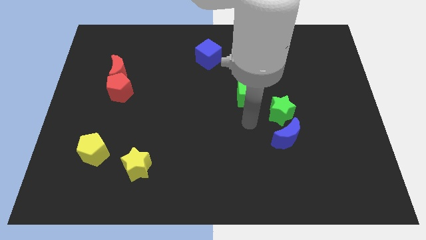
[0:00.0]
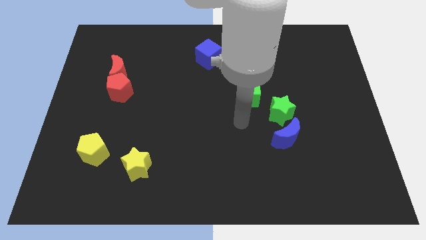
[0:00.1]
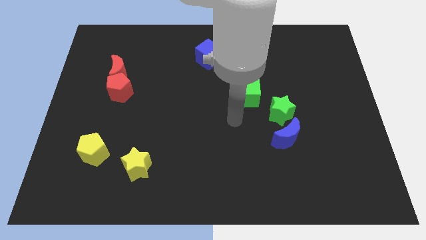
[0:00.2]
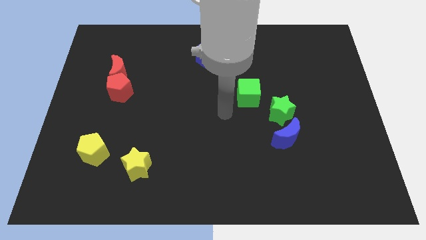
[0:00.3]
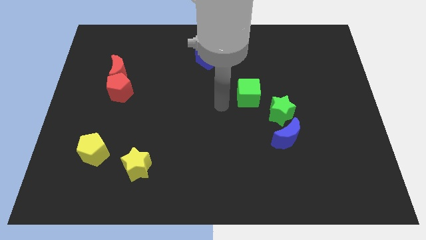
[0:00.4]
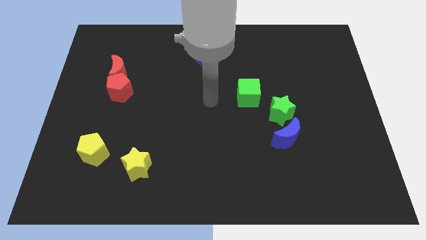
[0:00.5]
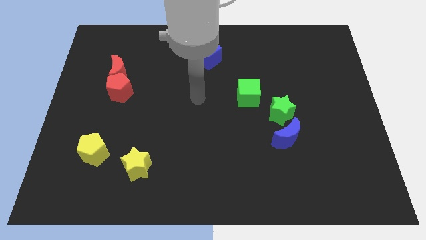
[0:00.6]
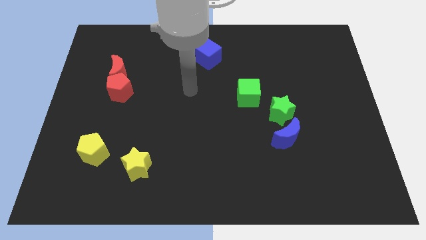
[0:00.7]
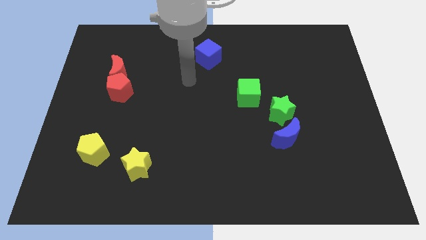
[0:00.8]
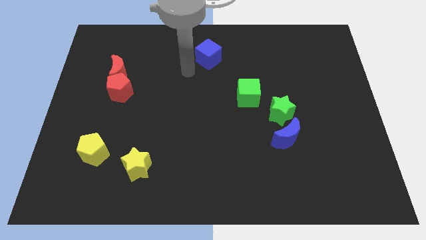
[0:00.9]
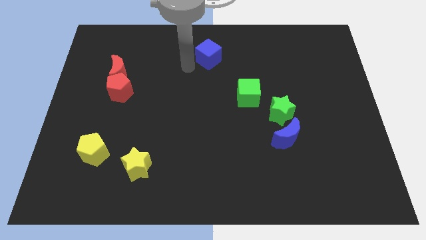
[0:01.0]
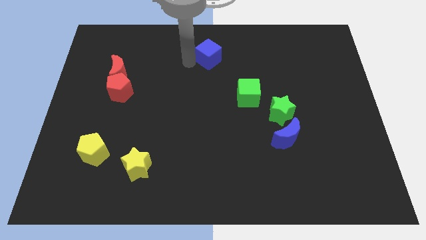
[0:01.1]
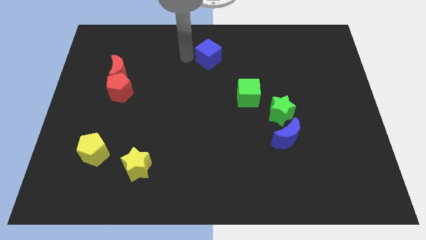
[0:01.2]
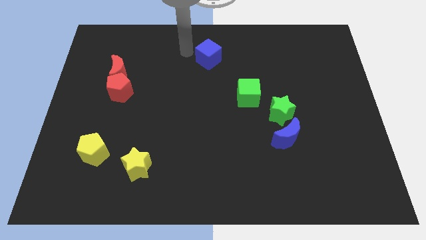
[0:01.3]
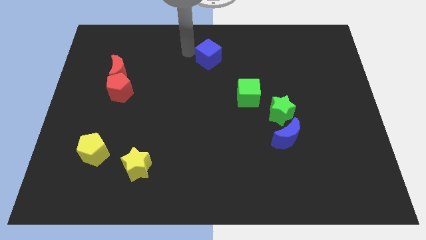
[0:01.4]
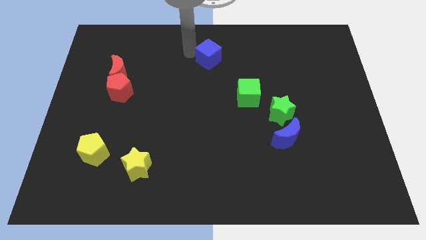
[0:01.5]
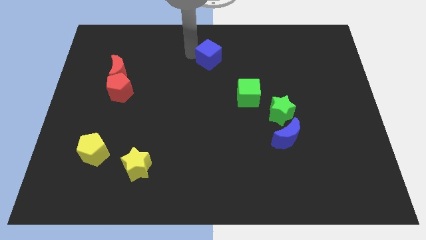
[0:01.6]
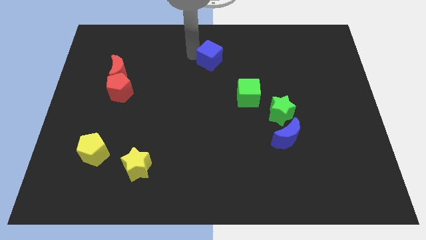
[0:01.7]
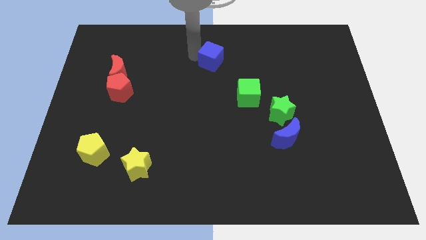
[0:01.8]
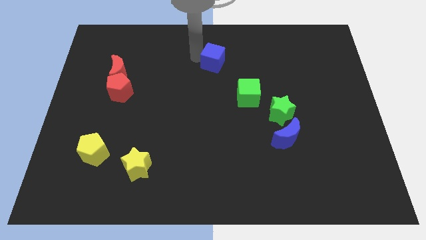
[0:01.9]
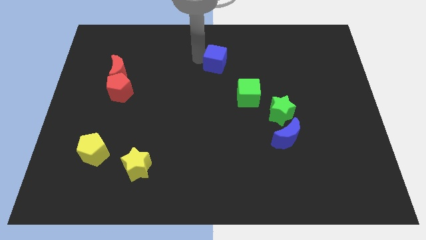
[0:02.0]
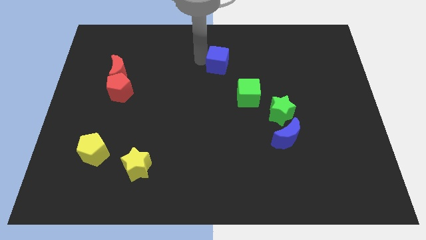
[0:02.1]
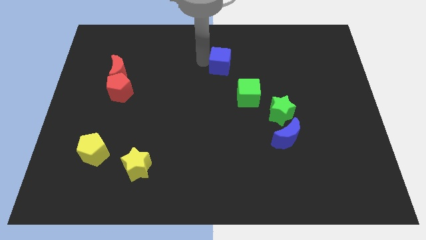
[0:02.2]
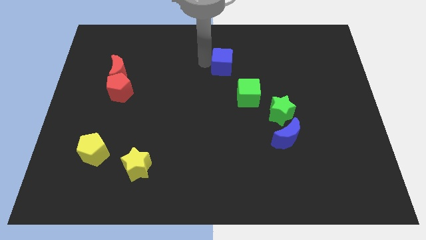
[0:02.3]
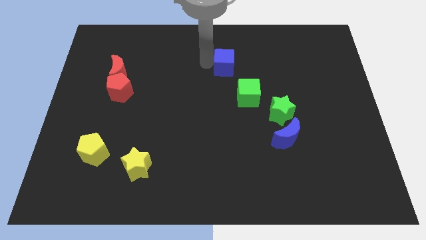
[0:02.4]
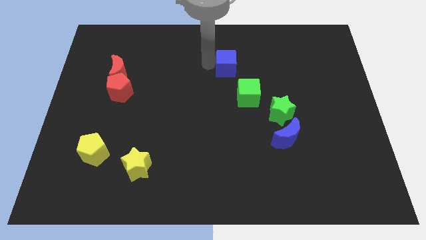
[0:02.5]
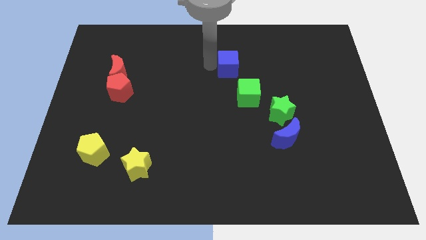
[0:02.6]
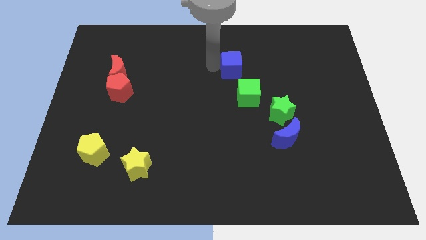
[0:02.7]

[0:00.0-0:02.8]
slide the blue cube downwards and to the right slightly

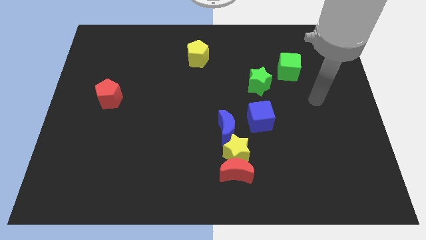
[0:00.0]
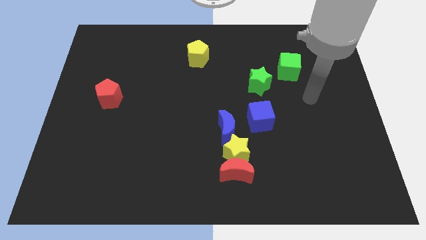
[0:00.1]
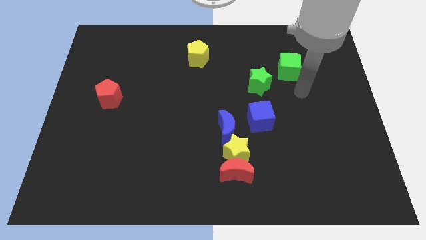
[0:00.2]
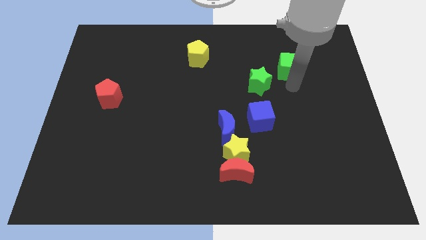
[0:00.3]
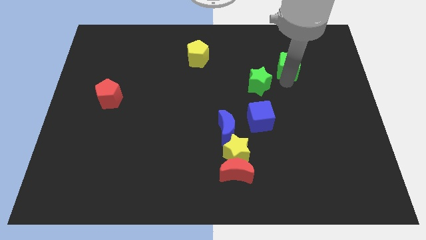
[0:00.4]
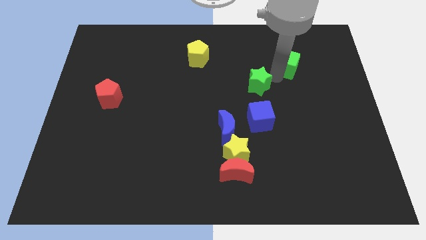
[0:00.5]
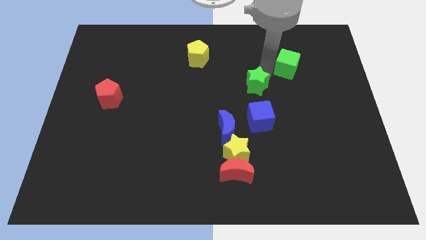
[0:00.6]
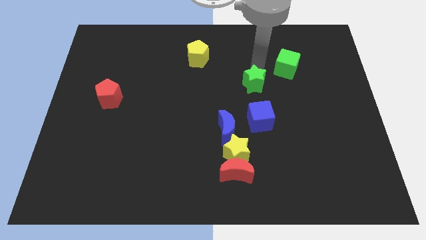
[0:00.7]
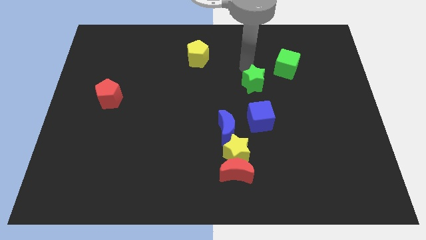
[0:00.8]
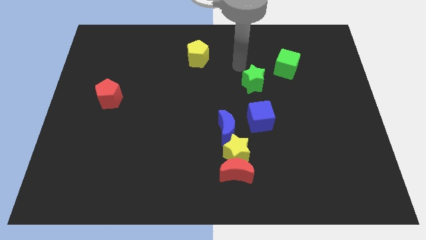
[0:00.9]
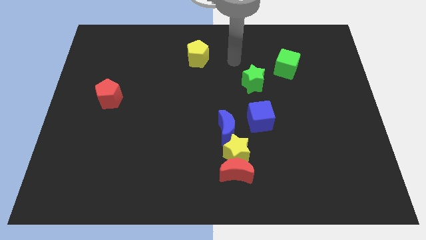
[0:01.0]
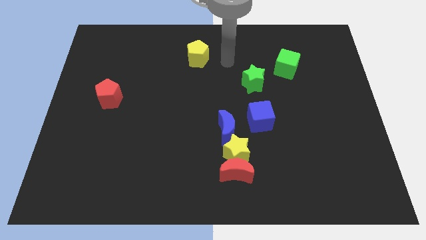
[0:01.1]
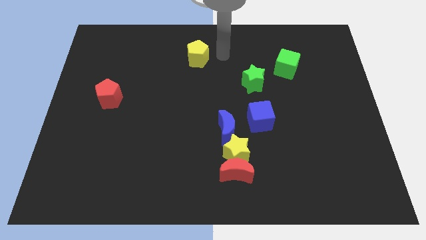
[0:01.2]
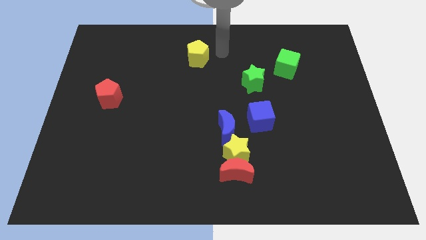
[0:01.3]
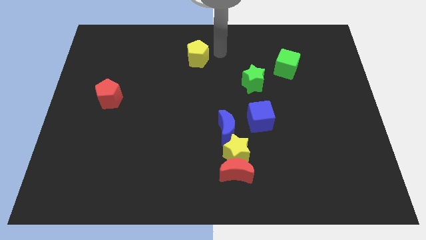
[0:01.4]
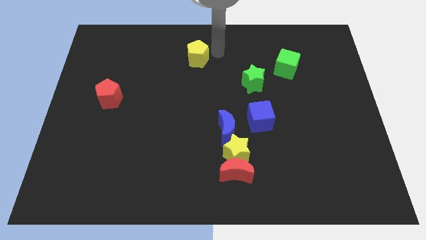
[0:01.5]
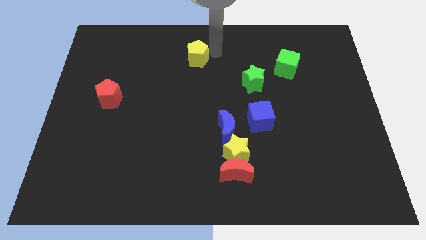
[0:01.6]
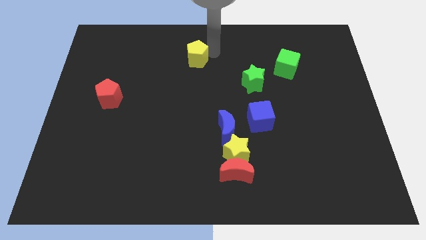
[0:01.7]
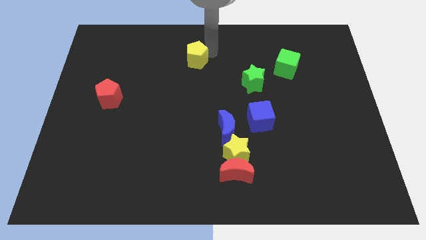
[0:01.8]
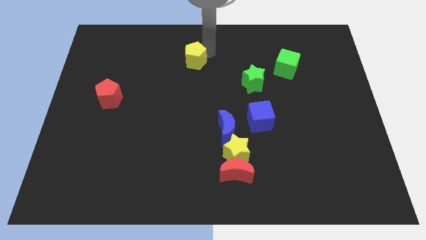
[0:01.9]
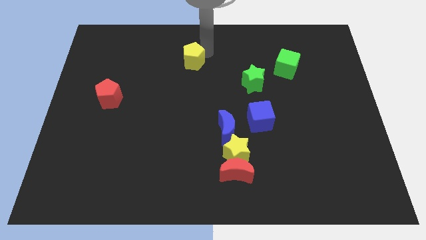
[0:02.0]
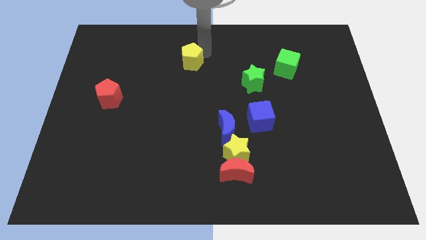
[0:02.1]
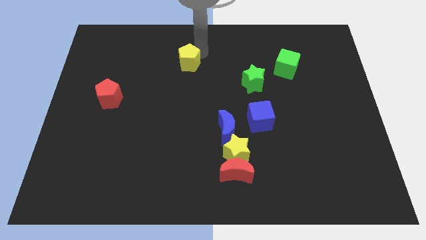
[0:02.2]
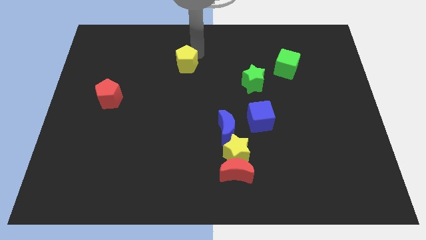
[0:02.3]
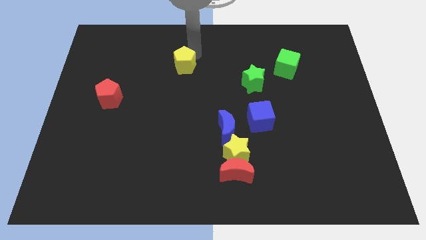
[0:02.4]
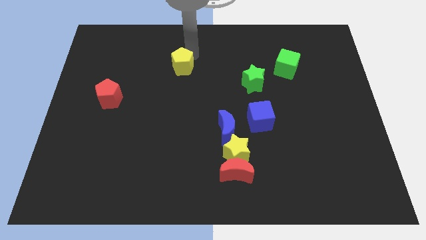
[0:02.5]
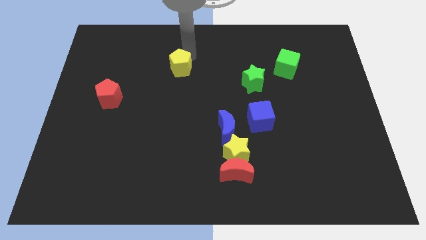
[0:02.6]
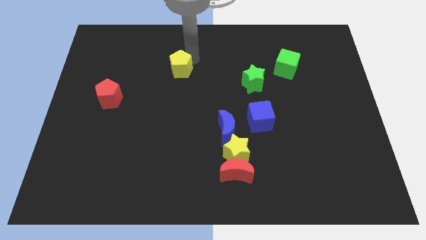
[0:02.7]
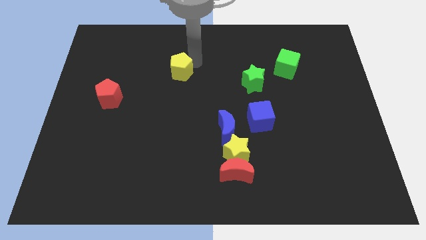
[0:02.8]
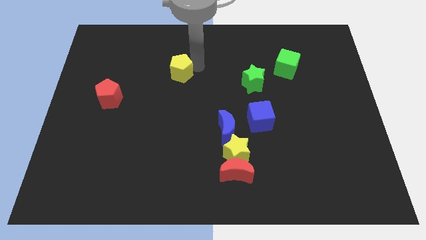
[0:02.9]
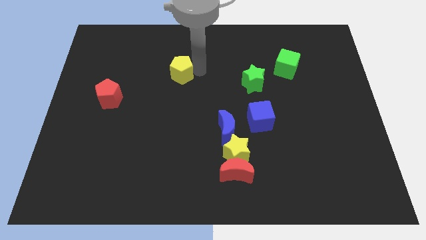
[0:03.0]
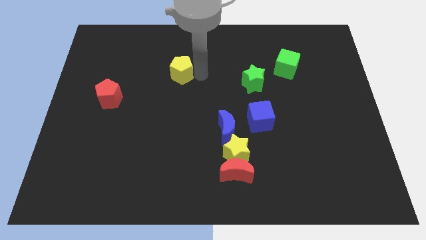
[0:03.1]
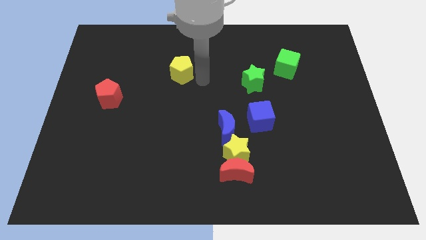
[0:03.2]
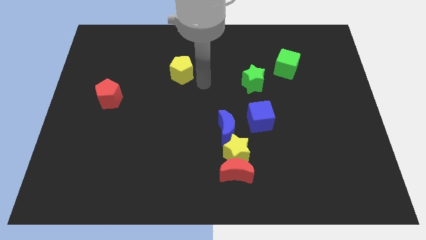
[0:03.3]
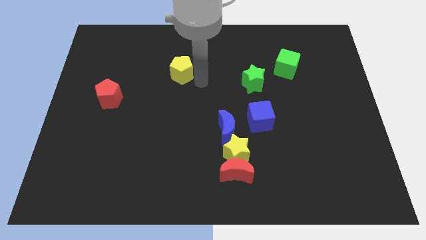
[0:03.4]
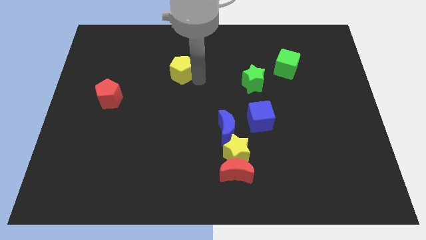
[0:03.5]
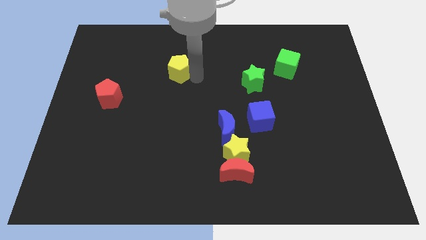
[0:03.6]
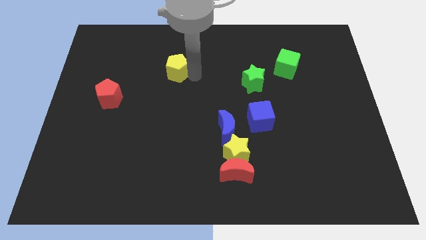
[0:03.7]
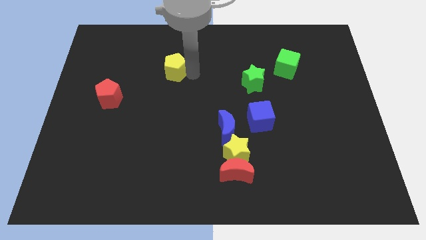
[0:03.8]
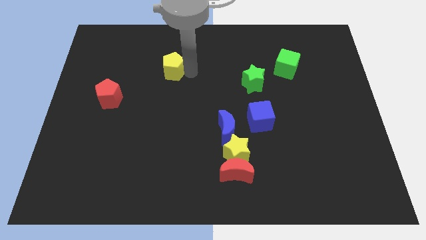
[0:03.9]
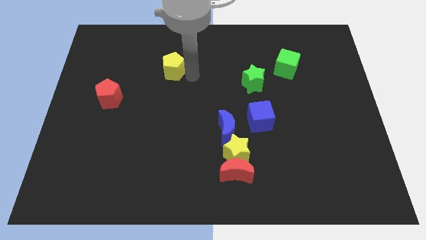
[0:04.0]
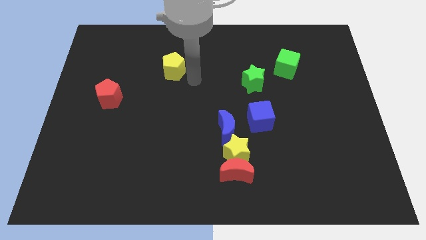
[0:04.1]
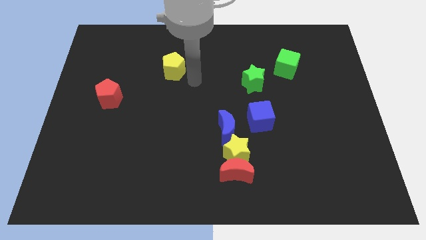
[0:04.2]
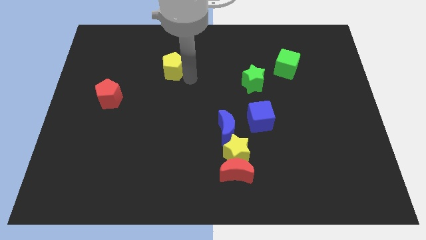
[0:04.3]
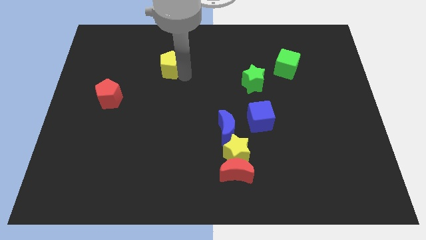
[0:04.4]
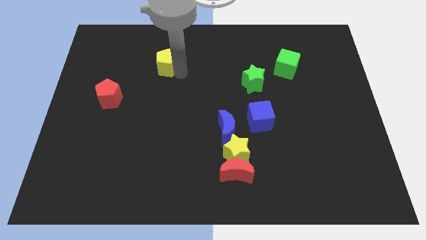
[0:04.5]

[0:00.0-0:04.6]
slide the yellow pentagon somewhat to the left

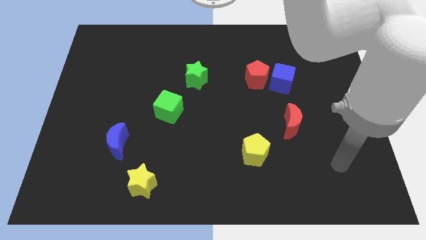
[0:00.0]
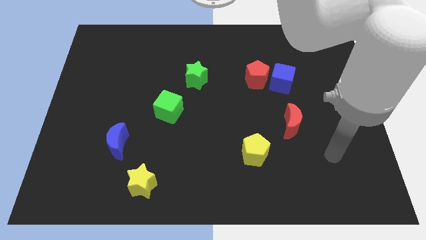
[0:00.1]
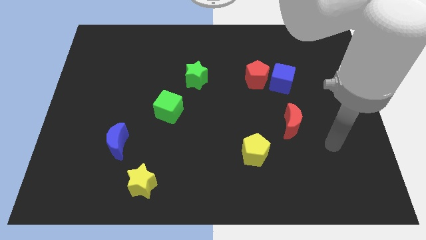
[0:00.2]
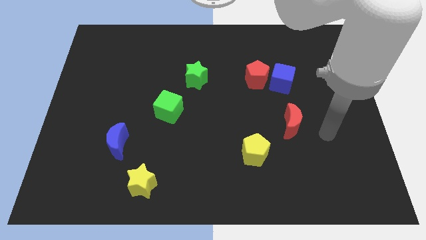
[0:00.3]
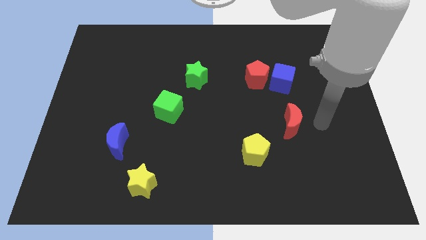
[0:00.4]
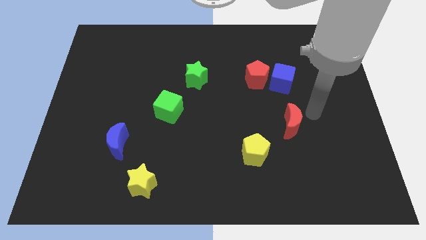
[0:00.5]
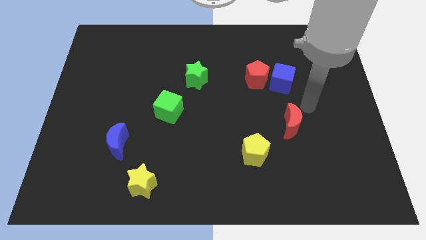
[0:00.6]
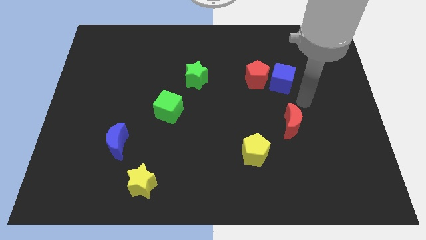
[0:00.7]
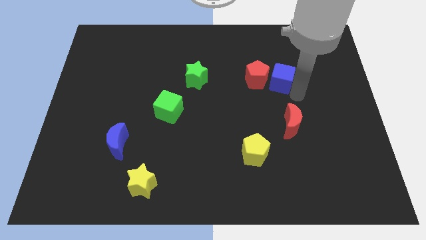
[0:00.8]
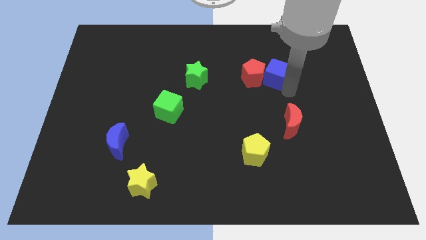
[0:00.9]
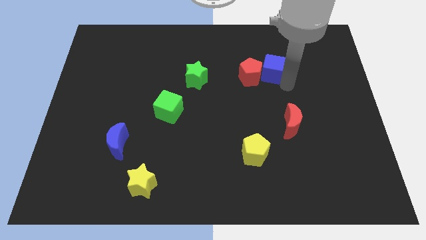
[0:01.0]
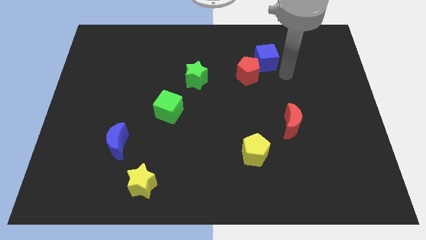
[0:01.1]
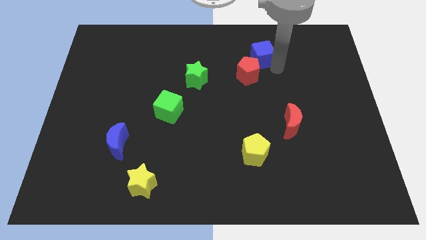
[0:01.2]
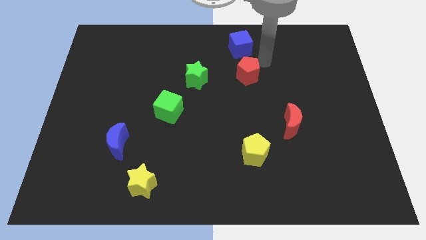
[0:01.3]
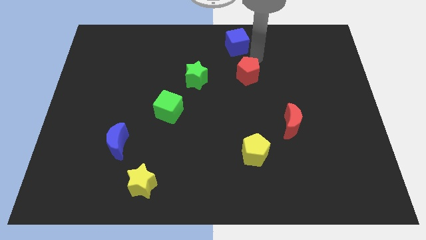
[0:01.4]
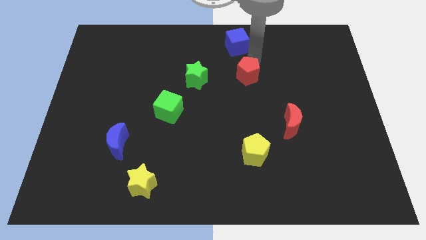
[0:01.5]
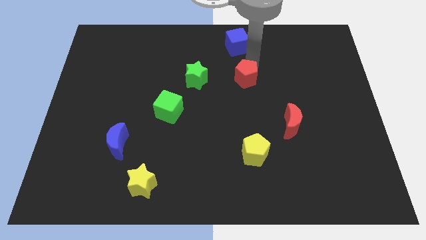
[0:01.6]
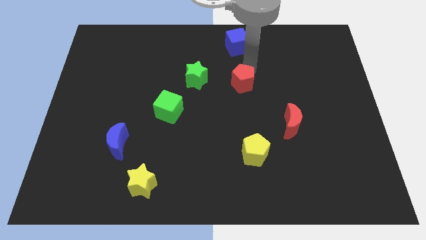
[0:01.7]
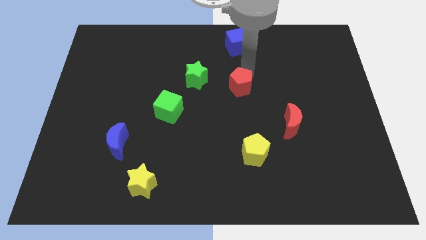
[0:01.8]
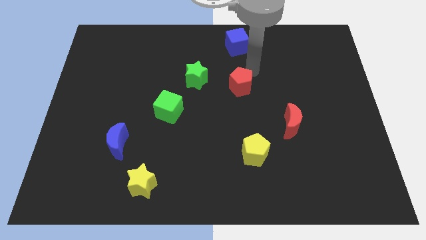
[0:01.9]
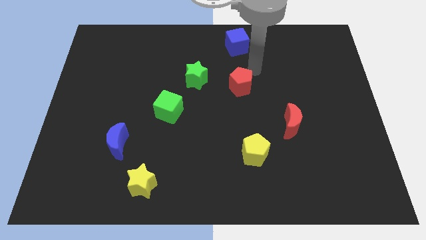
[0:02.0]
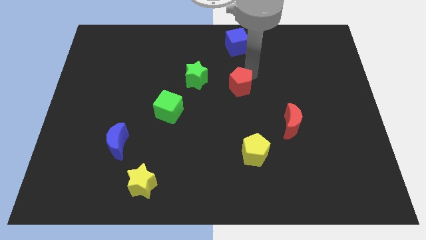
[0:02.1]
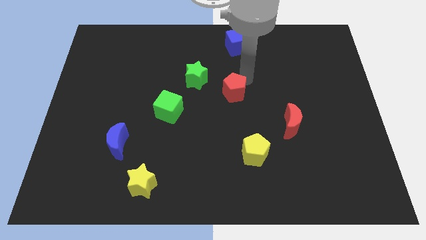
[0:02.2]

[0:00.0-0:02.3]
slide the red pentagon a bit down and to the left
